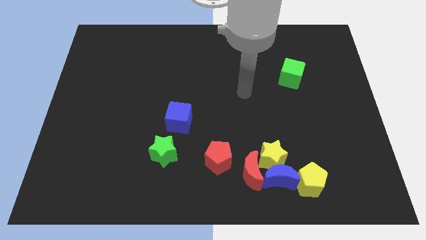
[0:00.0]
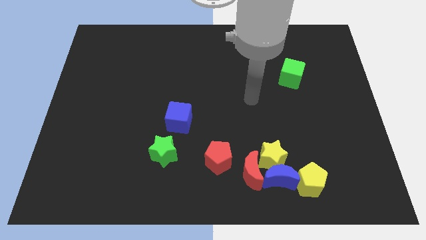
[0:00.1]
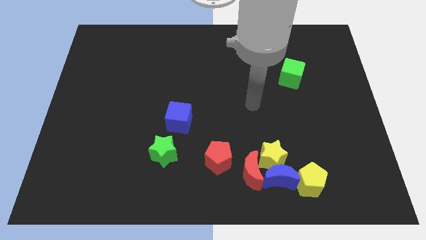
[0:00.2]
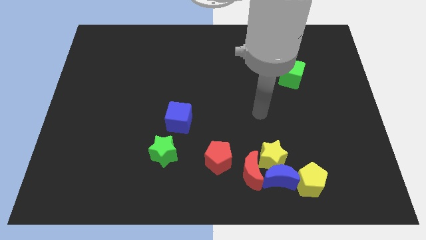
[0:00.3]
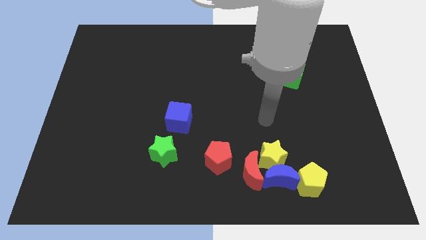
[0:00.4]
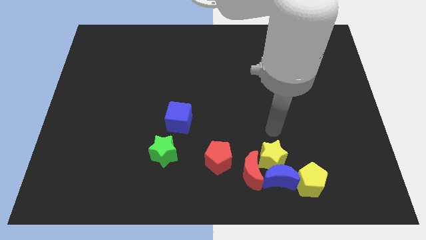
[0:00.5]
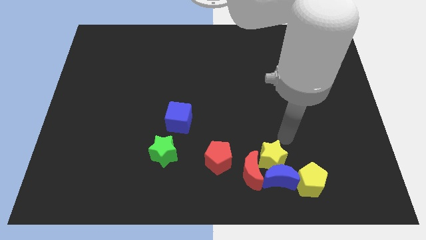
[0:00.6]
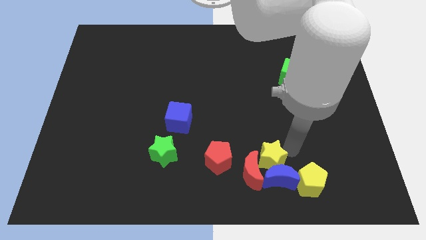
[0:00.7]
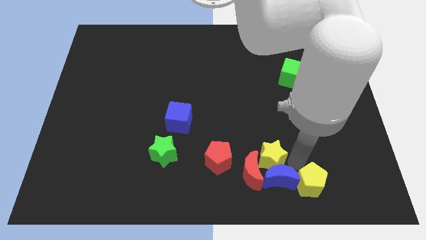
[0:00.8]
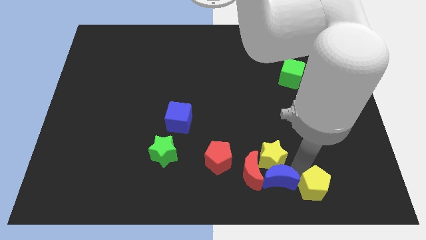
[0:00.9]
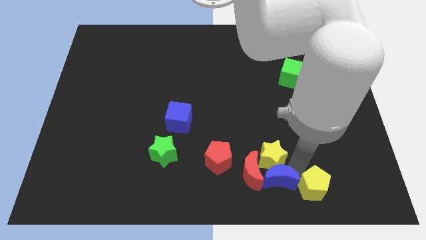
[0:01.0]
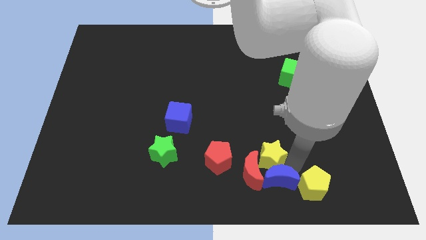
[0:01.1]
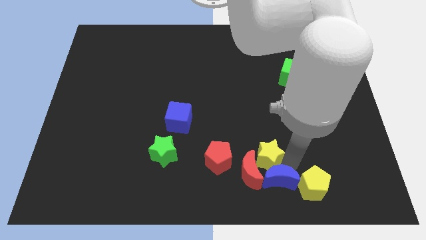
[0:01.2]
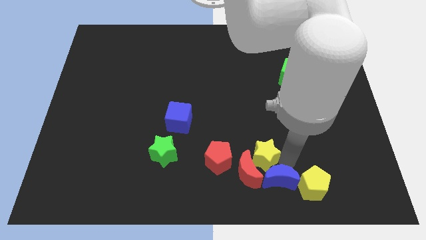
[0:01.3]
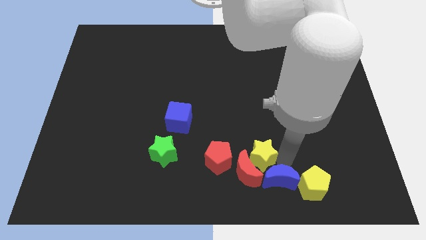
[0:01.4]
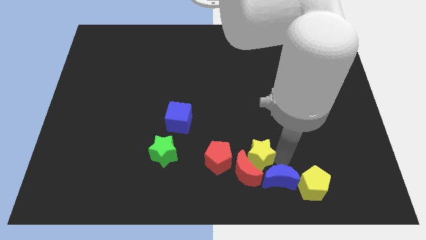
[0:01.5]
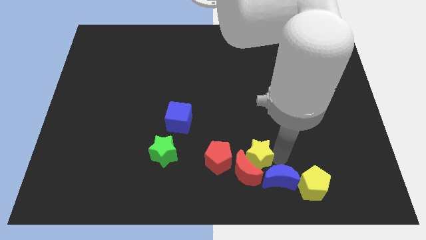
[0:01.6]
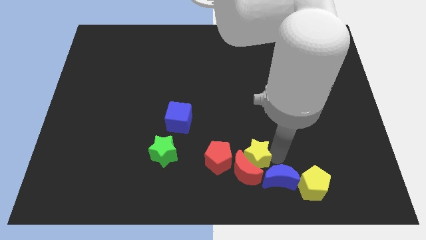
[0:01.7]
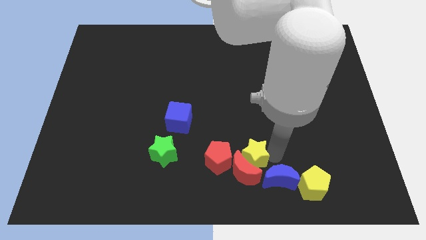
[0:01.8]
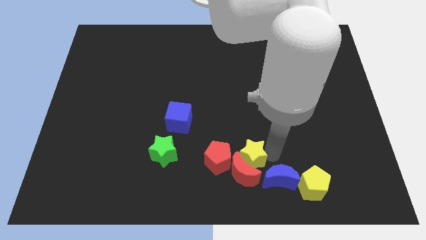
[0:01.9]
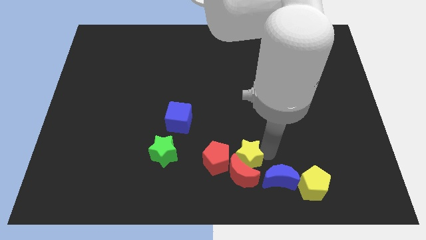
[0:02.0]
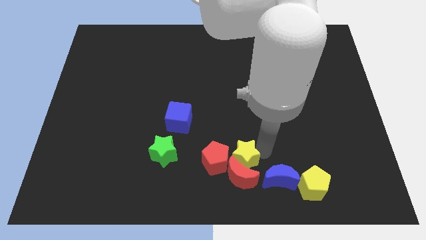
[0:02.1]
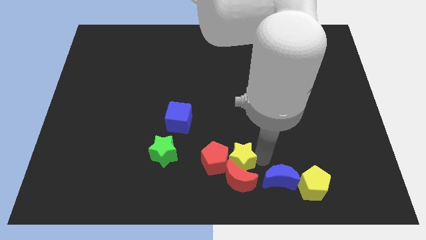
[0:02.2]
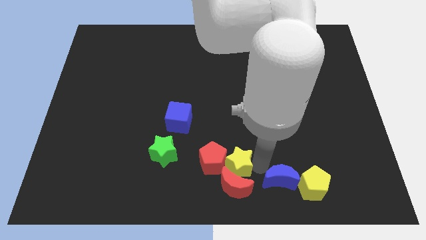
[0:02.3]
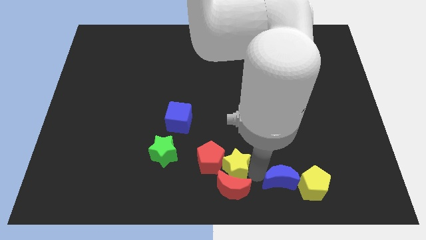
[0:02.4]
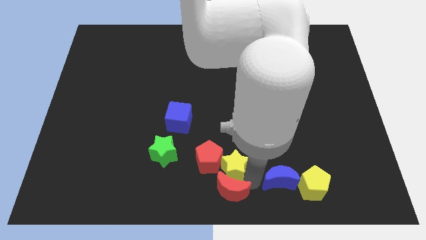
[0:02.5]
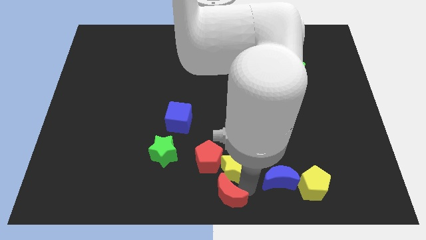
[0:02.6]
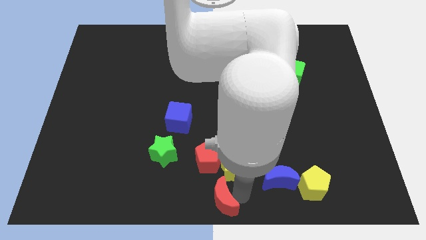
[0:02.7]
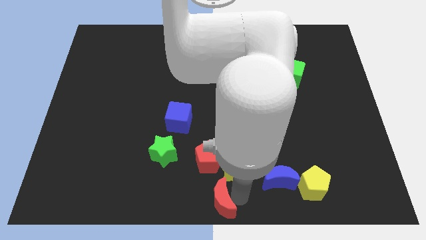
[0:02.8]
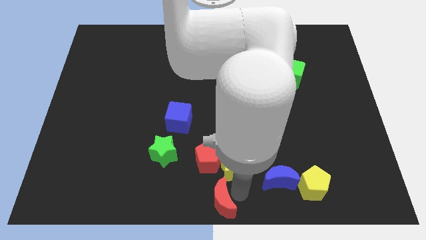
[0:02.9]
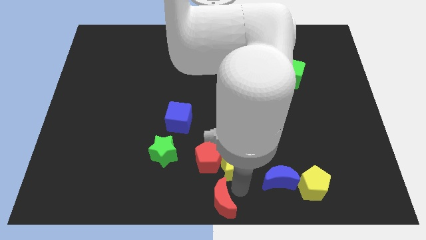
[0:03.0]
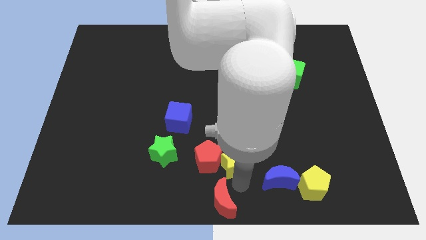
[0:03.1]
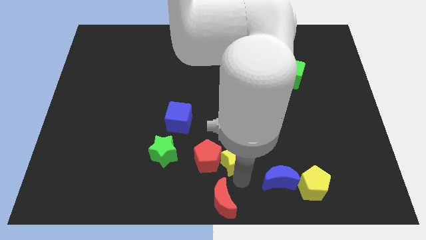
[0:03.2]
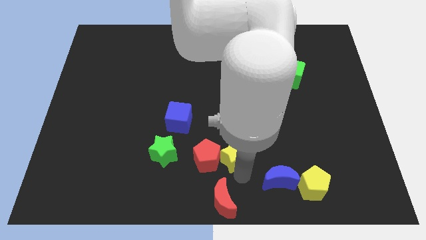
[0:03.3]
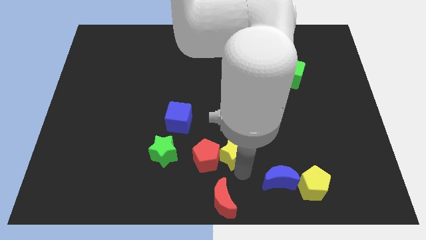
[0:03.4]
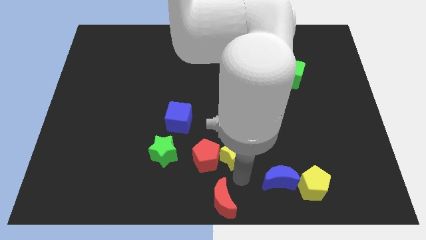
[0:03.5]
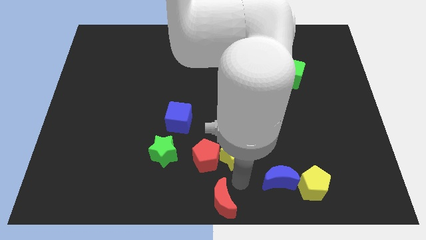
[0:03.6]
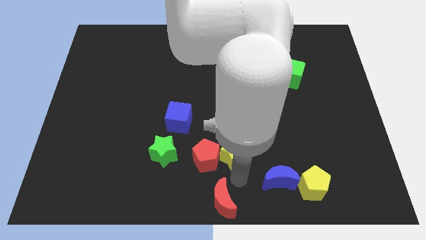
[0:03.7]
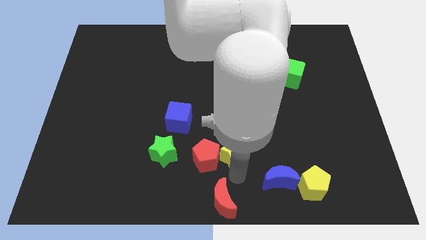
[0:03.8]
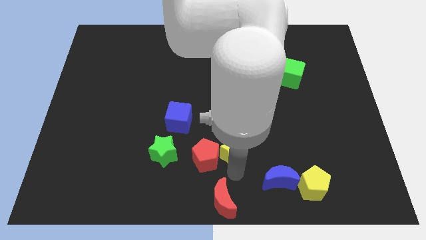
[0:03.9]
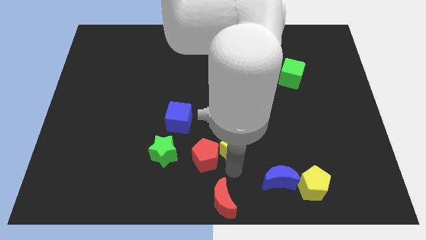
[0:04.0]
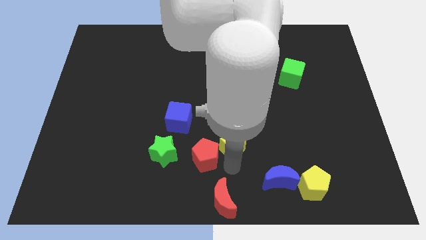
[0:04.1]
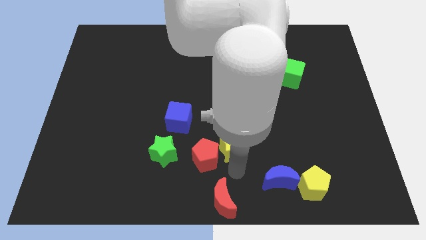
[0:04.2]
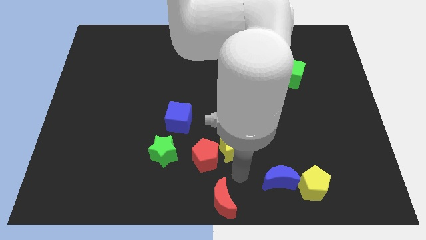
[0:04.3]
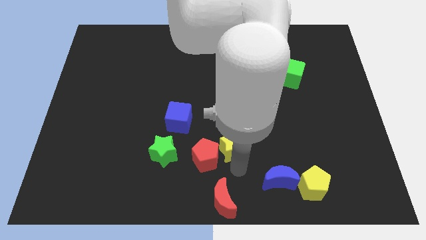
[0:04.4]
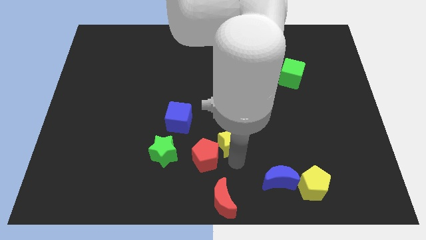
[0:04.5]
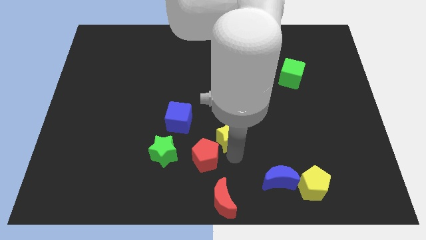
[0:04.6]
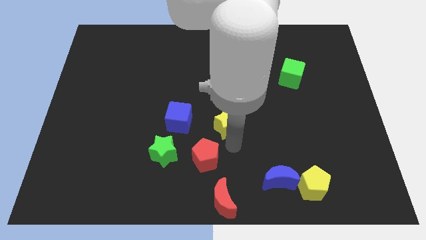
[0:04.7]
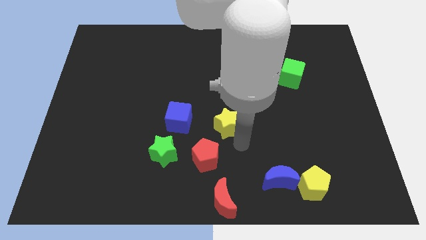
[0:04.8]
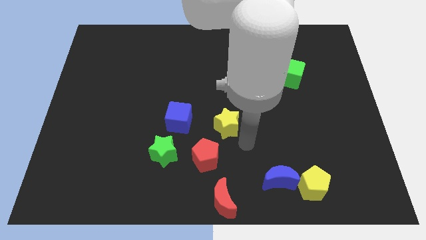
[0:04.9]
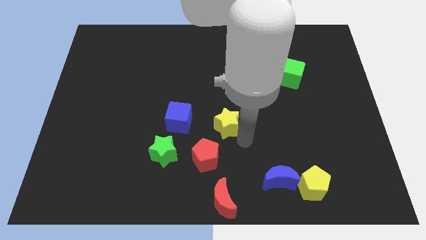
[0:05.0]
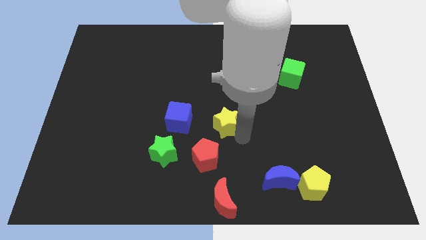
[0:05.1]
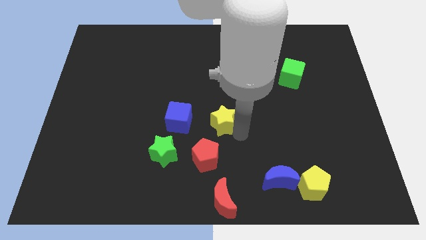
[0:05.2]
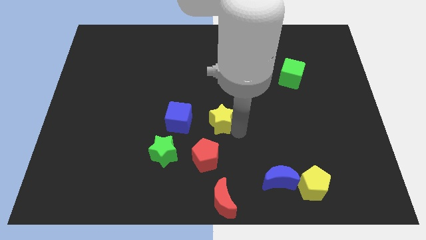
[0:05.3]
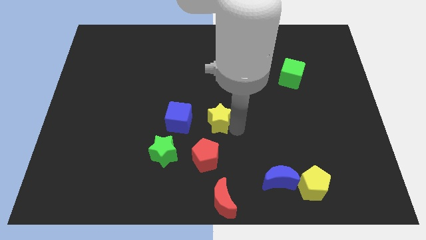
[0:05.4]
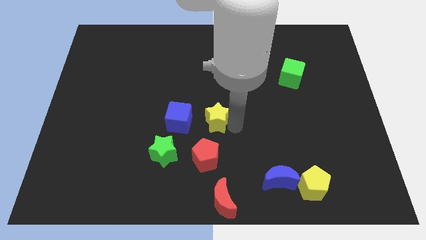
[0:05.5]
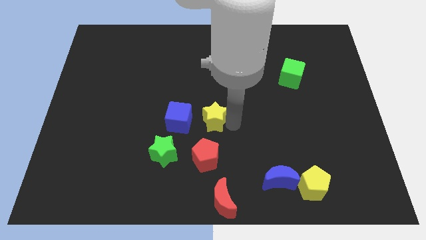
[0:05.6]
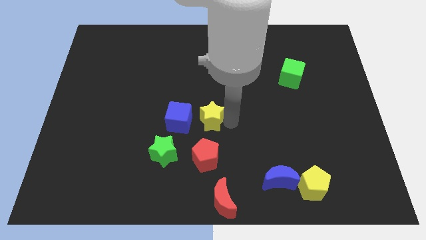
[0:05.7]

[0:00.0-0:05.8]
put the yellow star to the top right side of the blue cube
